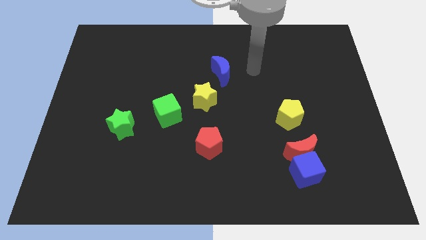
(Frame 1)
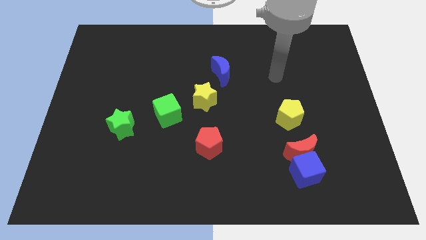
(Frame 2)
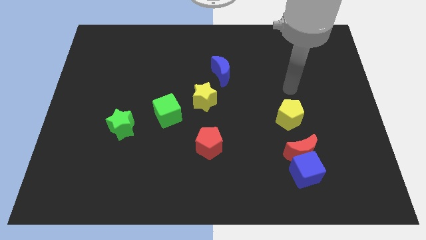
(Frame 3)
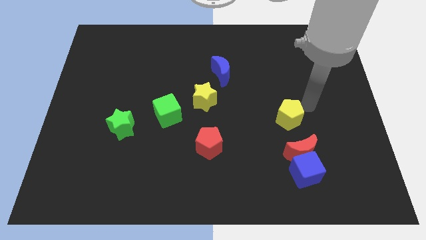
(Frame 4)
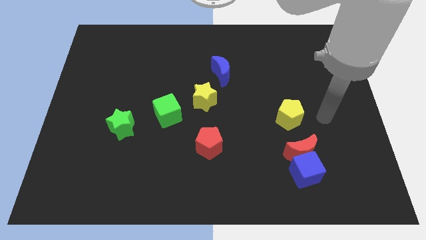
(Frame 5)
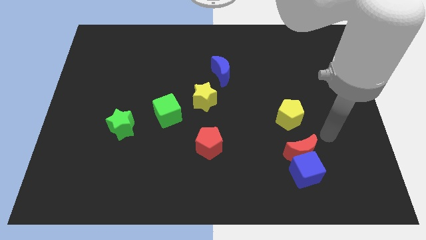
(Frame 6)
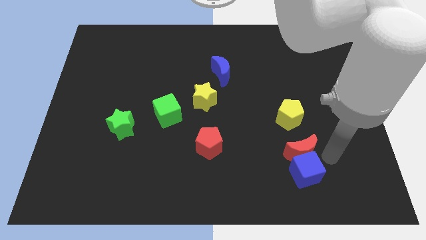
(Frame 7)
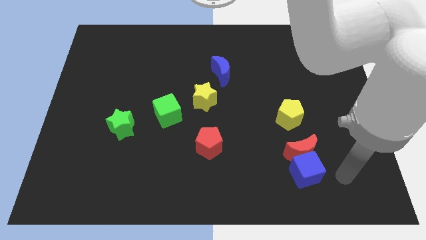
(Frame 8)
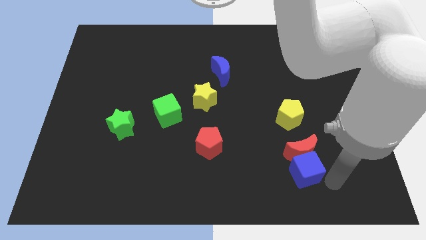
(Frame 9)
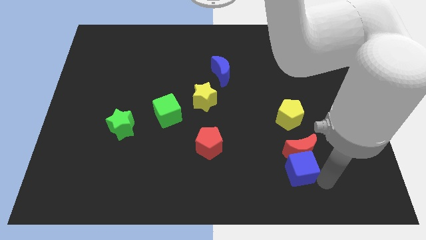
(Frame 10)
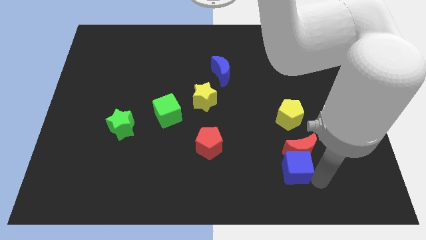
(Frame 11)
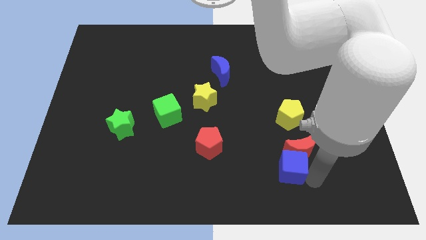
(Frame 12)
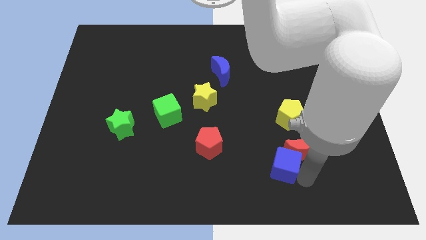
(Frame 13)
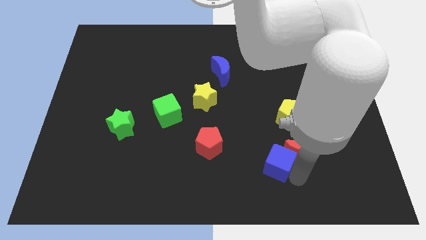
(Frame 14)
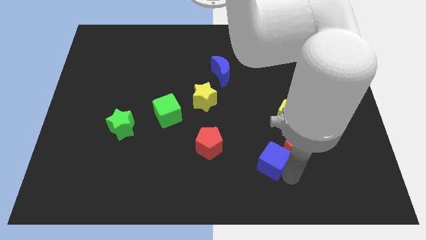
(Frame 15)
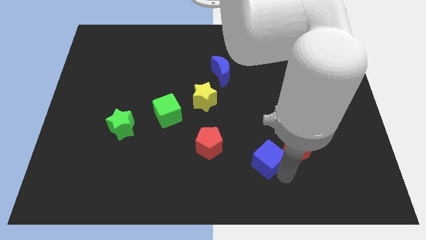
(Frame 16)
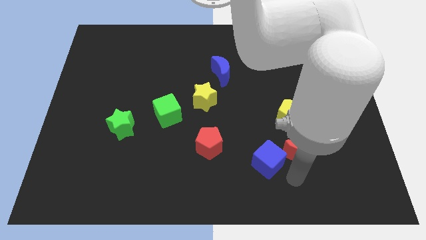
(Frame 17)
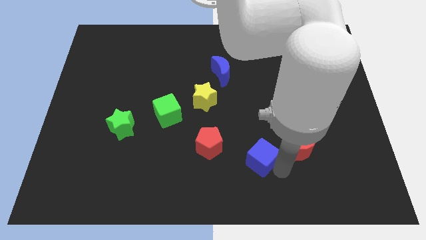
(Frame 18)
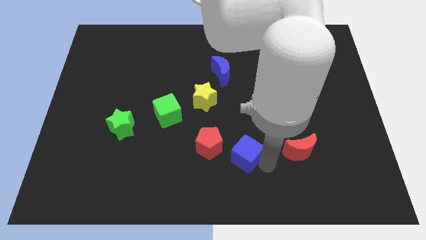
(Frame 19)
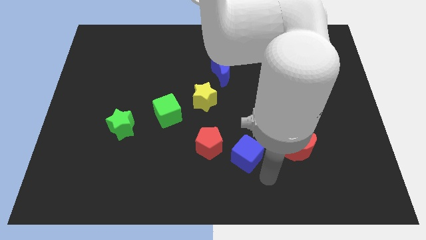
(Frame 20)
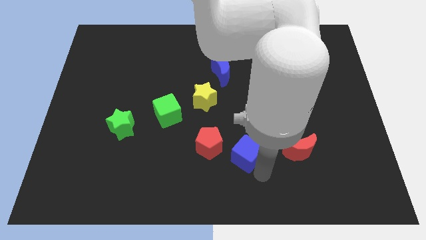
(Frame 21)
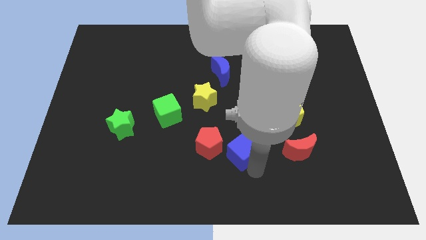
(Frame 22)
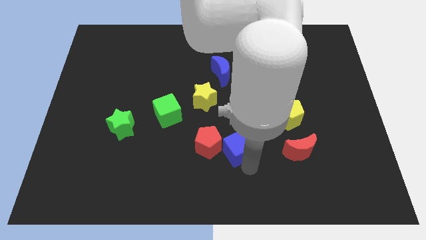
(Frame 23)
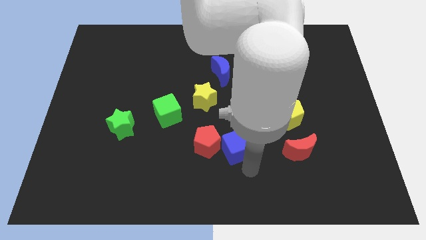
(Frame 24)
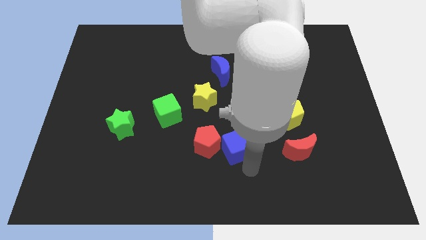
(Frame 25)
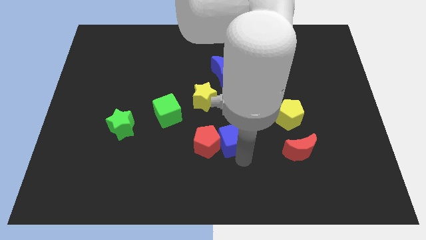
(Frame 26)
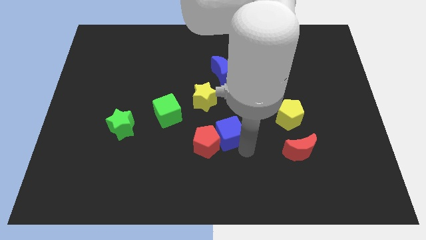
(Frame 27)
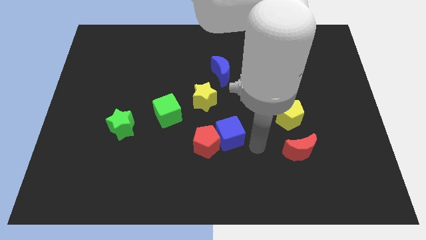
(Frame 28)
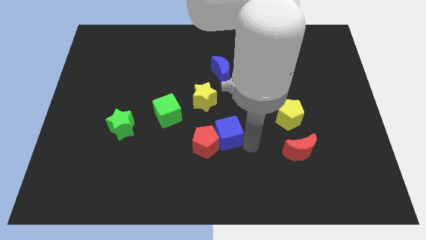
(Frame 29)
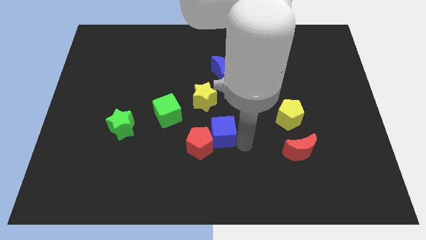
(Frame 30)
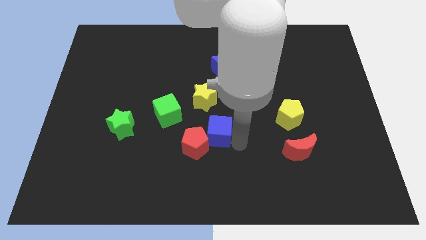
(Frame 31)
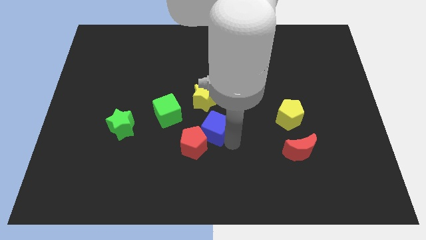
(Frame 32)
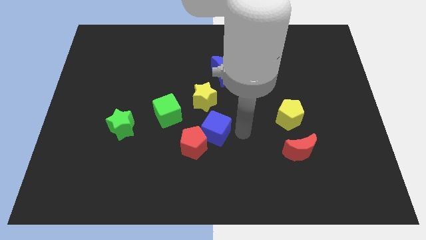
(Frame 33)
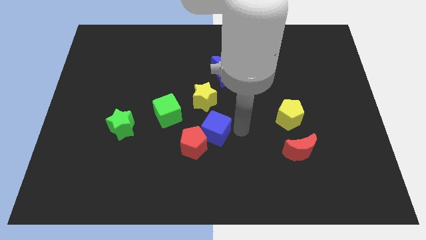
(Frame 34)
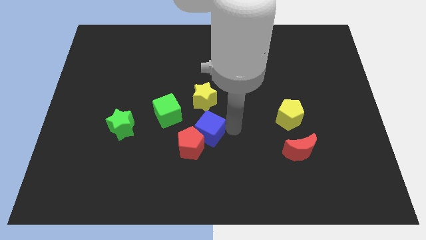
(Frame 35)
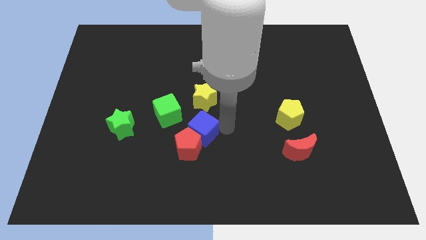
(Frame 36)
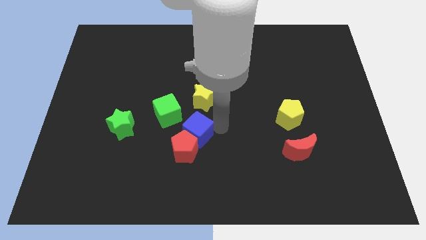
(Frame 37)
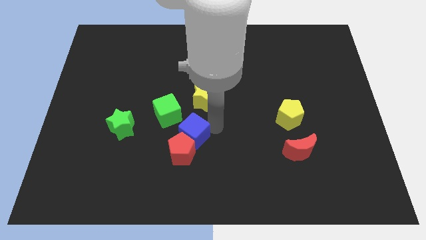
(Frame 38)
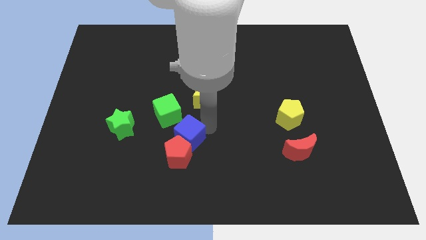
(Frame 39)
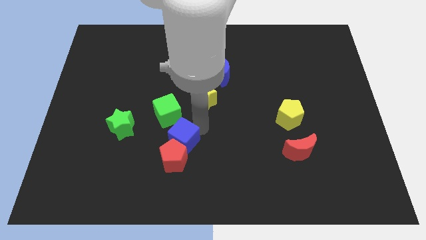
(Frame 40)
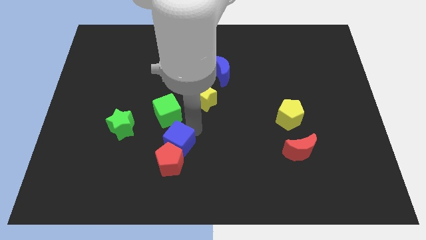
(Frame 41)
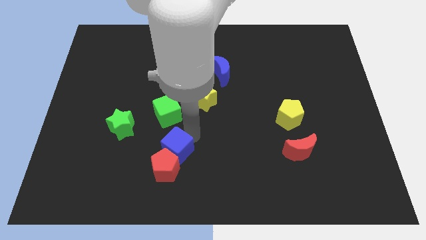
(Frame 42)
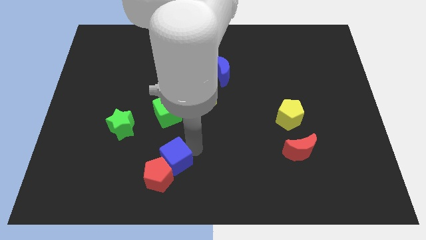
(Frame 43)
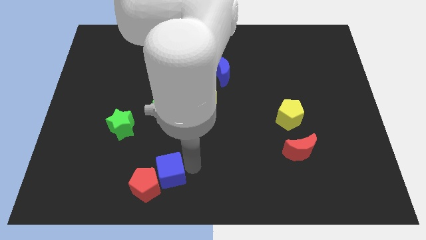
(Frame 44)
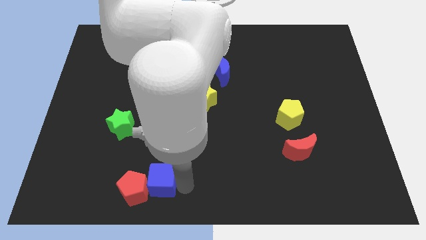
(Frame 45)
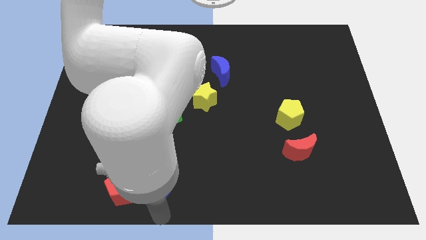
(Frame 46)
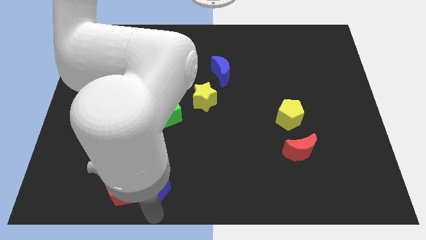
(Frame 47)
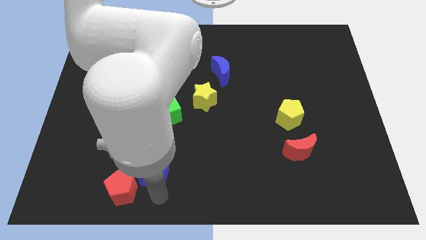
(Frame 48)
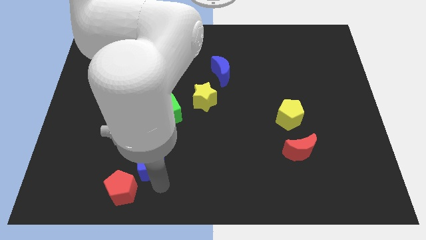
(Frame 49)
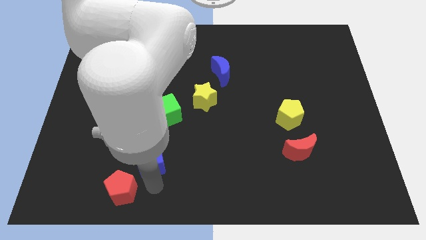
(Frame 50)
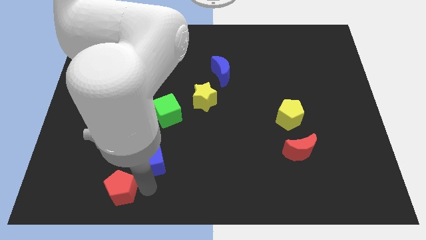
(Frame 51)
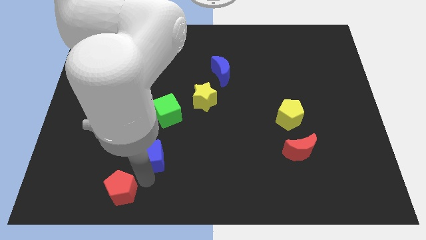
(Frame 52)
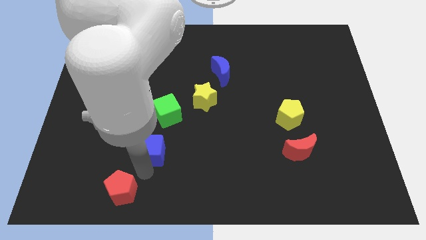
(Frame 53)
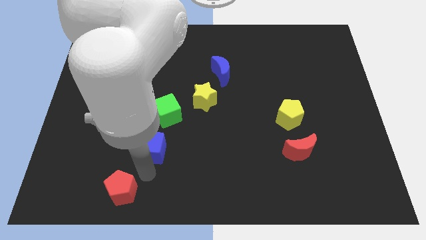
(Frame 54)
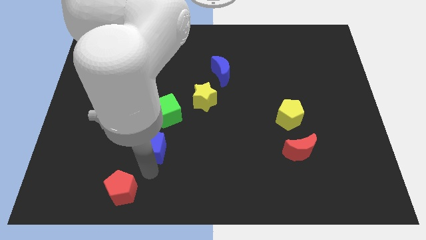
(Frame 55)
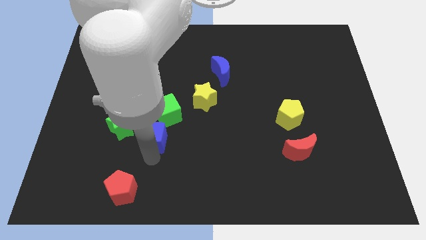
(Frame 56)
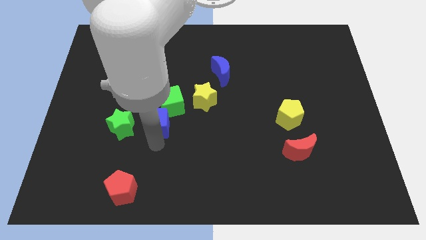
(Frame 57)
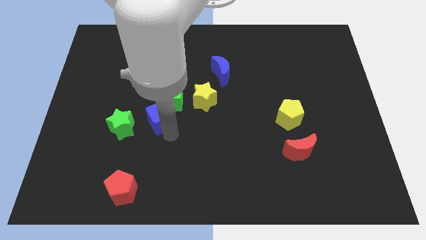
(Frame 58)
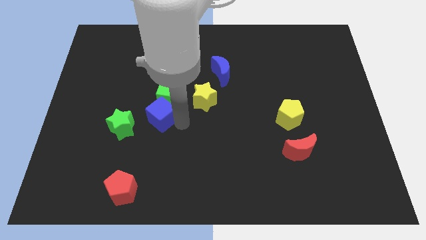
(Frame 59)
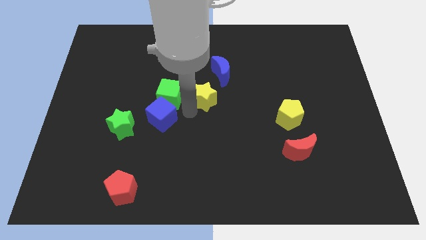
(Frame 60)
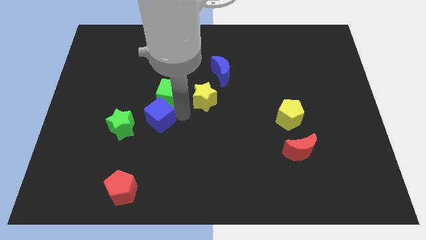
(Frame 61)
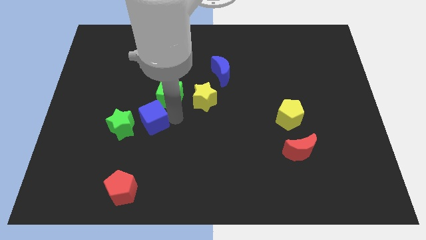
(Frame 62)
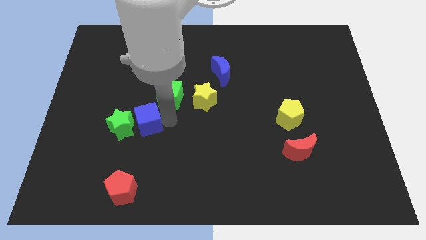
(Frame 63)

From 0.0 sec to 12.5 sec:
move the blue cube close to the green star

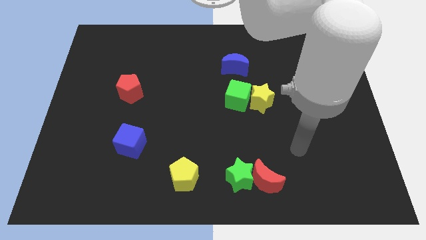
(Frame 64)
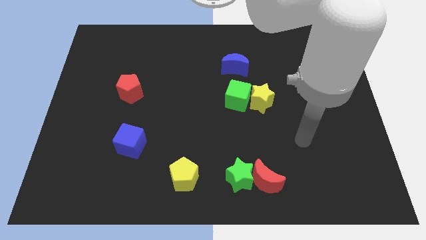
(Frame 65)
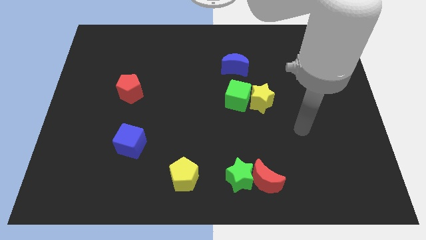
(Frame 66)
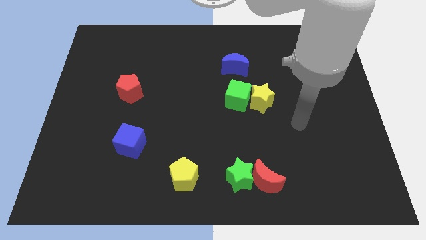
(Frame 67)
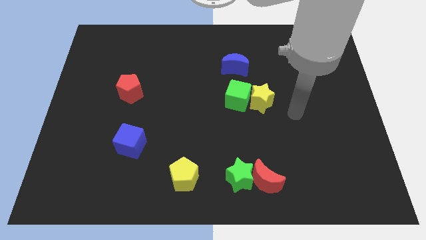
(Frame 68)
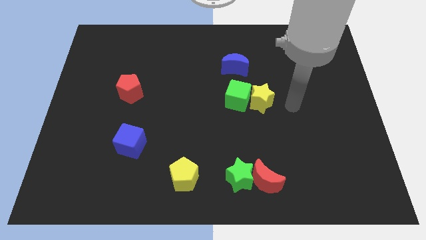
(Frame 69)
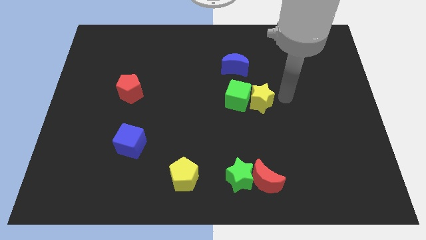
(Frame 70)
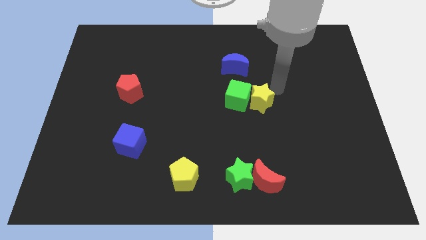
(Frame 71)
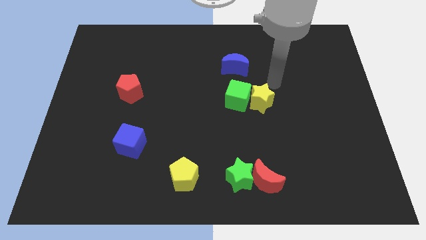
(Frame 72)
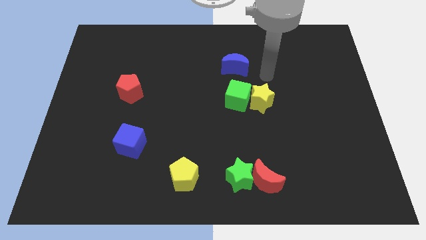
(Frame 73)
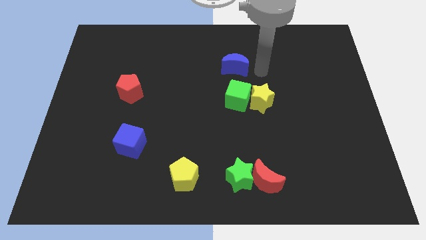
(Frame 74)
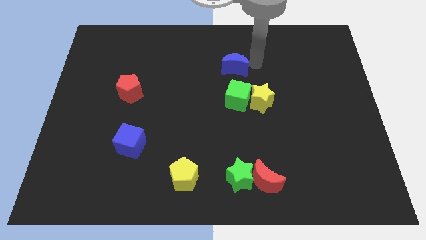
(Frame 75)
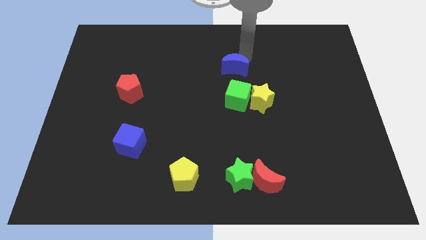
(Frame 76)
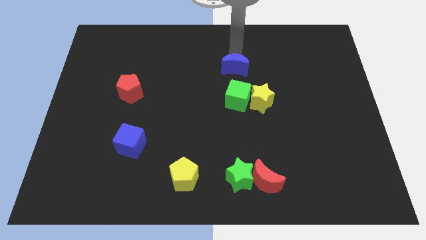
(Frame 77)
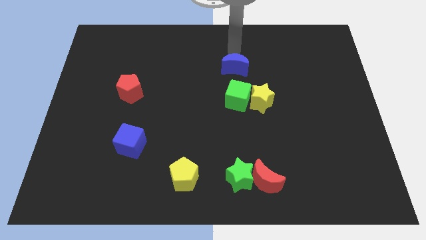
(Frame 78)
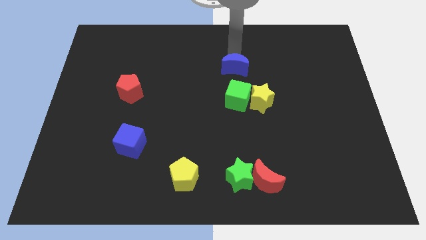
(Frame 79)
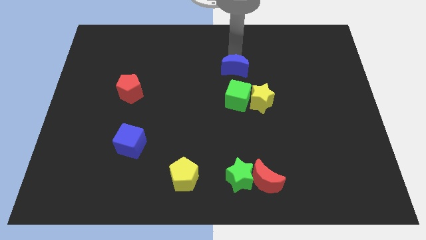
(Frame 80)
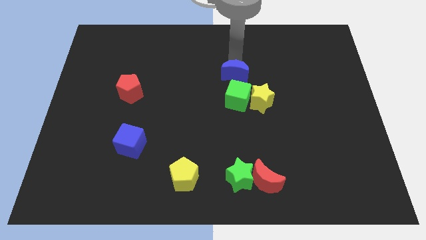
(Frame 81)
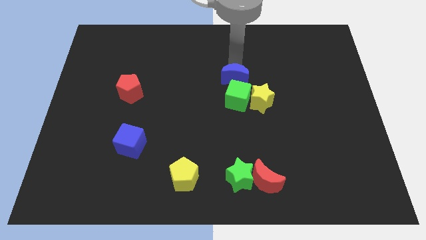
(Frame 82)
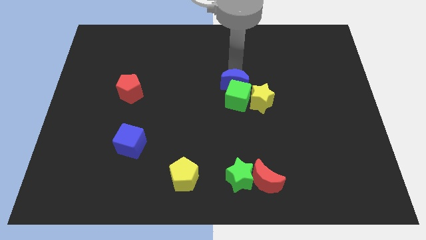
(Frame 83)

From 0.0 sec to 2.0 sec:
put the blue moon to the green cube
